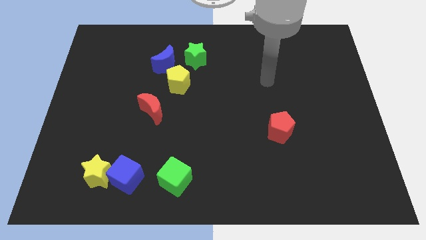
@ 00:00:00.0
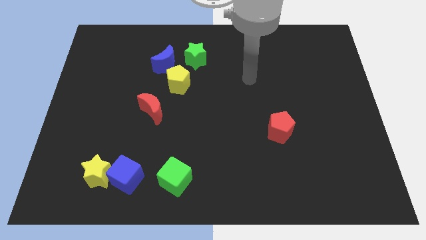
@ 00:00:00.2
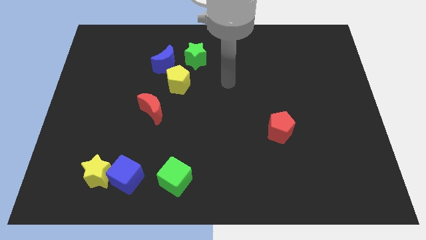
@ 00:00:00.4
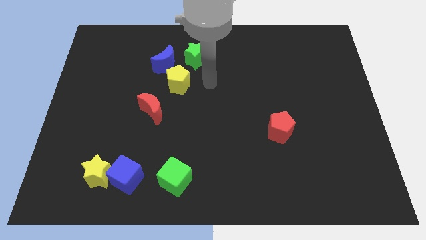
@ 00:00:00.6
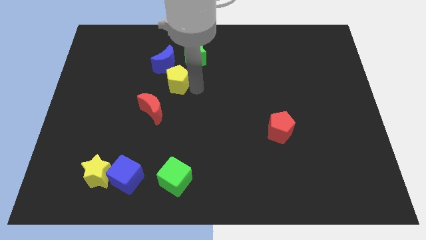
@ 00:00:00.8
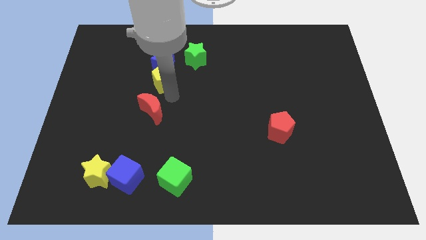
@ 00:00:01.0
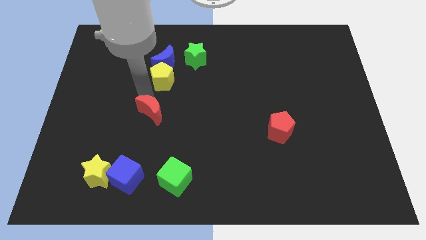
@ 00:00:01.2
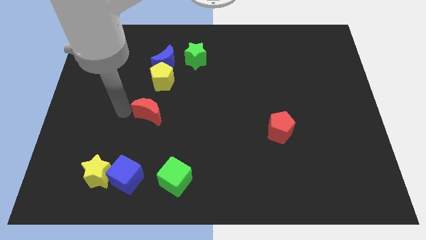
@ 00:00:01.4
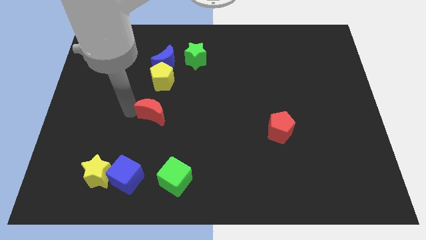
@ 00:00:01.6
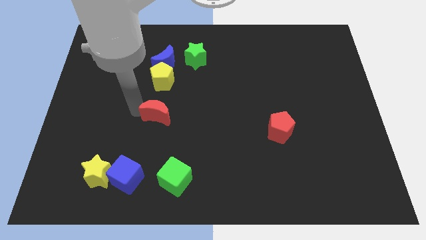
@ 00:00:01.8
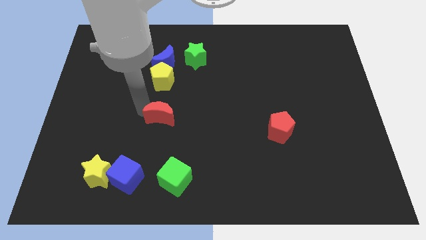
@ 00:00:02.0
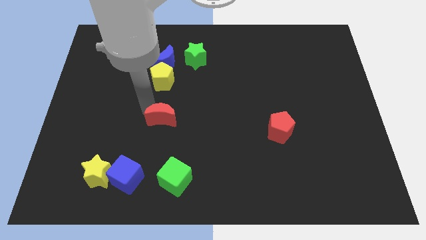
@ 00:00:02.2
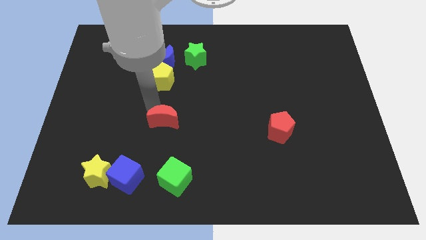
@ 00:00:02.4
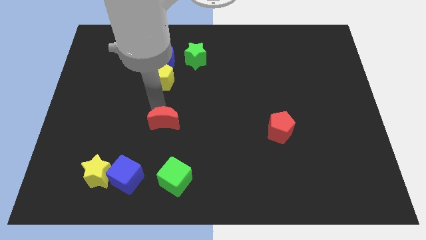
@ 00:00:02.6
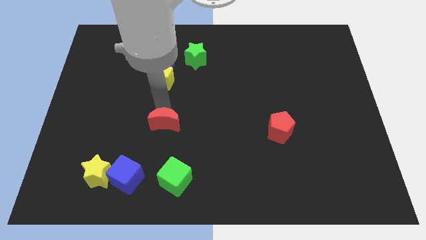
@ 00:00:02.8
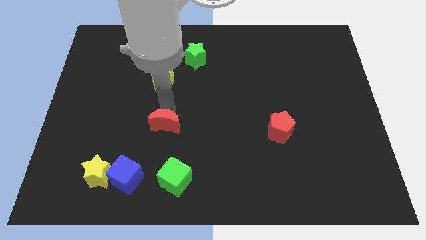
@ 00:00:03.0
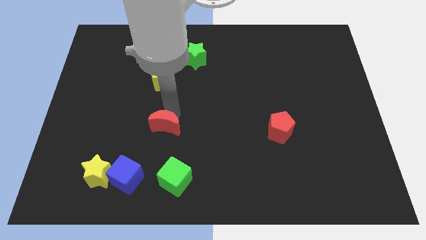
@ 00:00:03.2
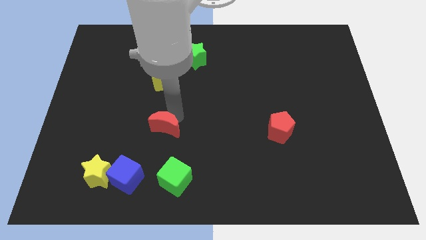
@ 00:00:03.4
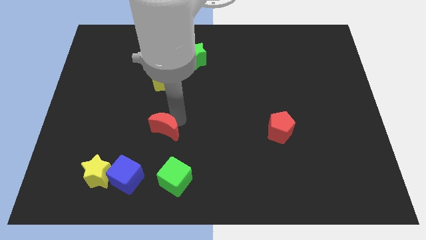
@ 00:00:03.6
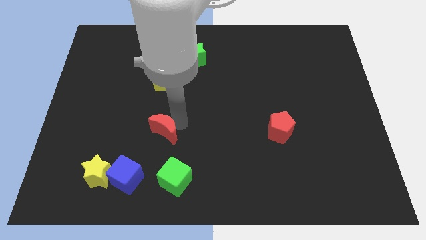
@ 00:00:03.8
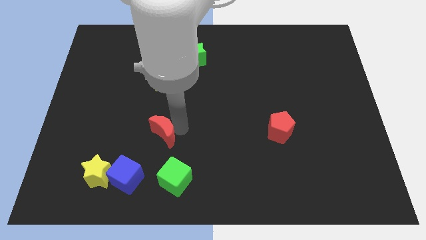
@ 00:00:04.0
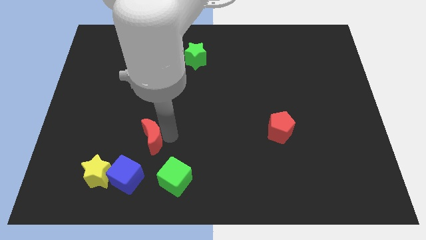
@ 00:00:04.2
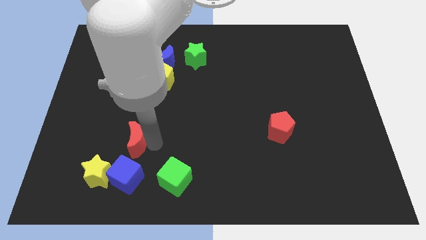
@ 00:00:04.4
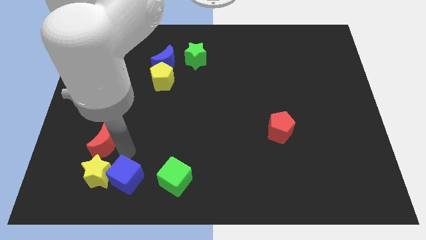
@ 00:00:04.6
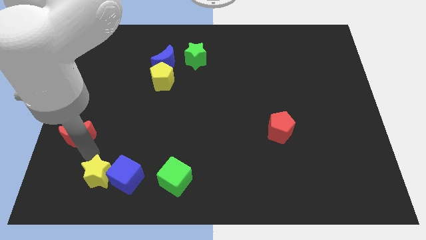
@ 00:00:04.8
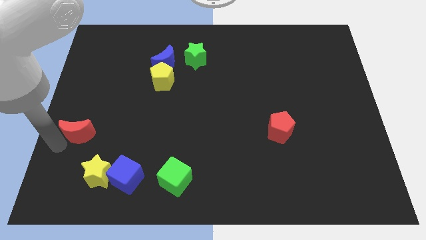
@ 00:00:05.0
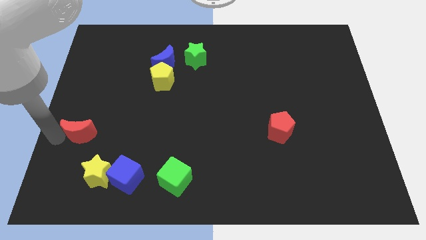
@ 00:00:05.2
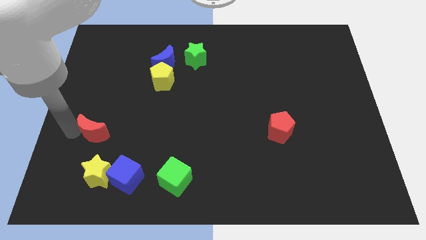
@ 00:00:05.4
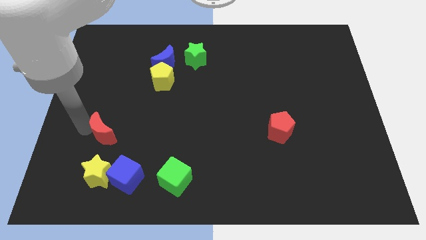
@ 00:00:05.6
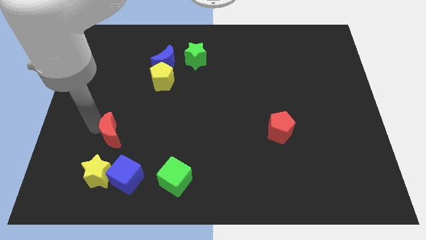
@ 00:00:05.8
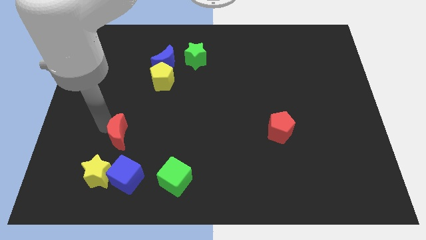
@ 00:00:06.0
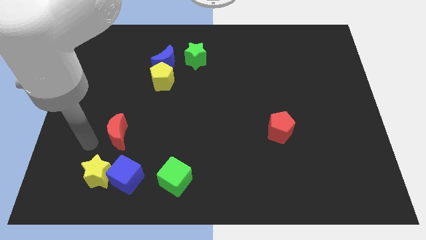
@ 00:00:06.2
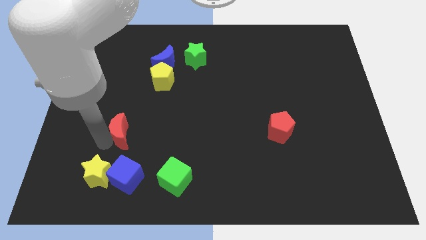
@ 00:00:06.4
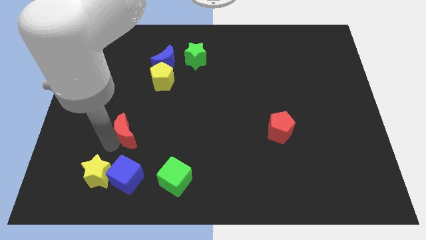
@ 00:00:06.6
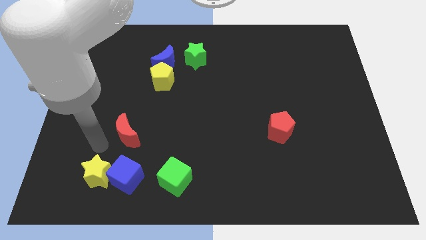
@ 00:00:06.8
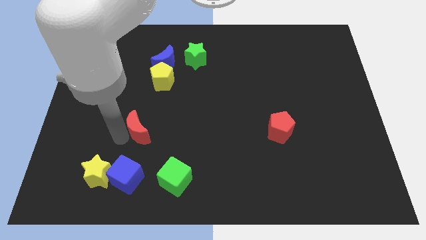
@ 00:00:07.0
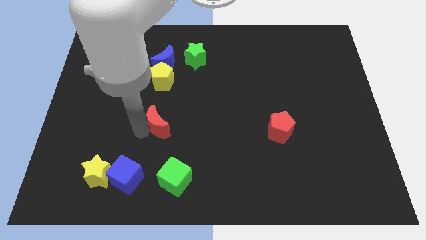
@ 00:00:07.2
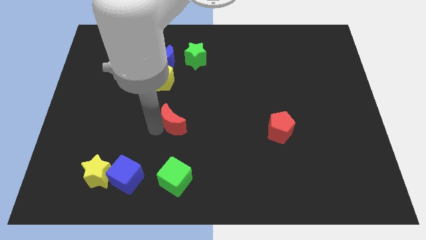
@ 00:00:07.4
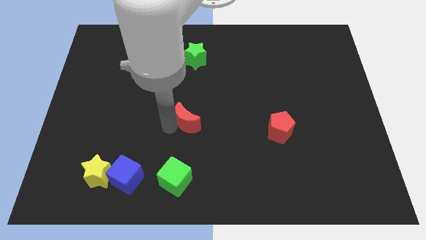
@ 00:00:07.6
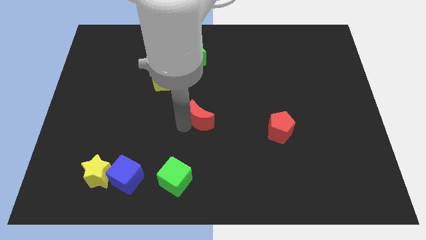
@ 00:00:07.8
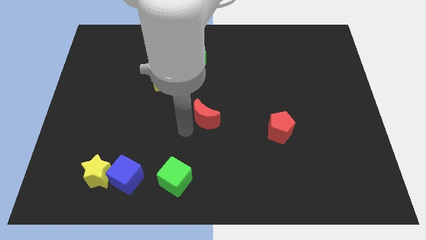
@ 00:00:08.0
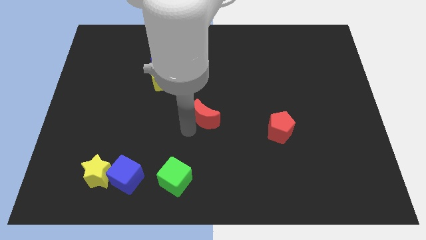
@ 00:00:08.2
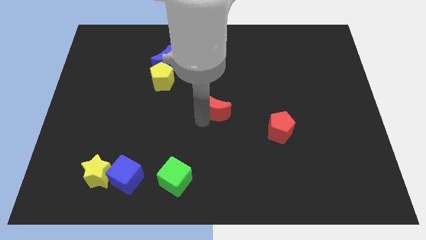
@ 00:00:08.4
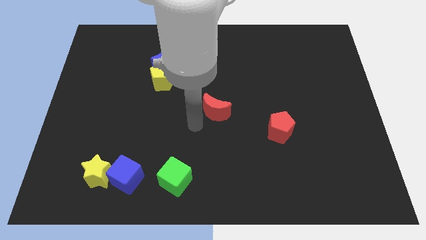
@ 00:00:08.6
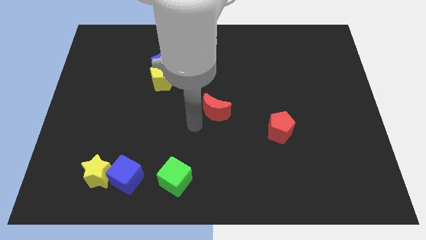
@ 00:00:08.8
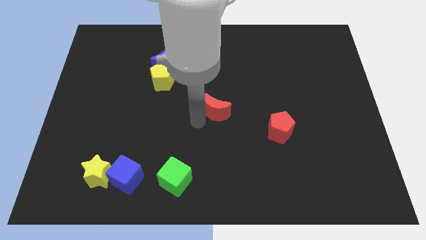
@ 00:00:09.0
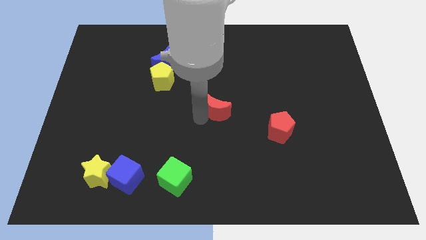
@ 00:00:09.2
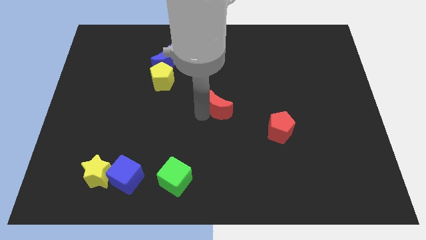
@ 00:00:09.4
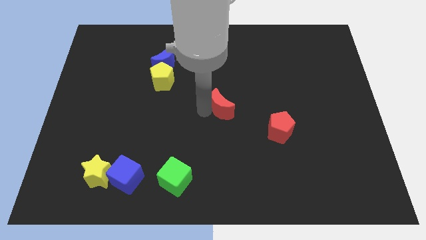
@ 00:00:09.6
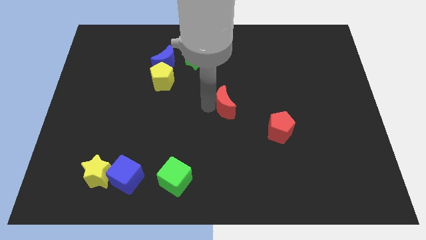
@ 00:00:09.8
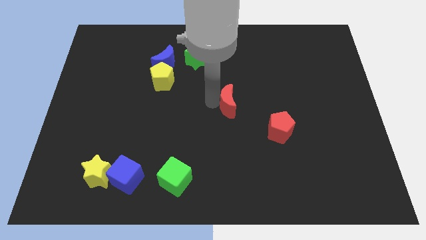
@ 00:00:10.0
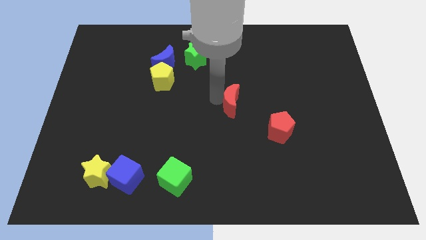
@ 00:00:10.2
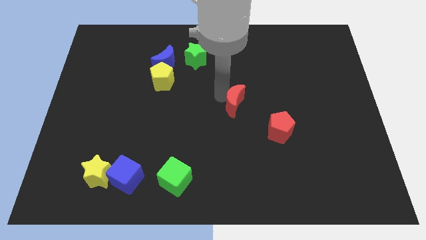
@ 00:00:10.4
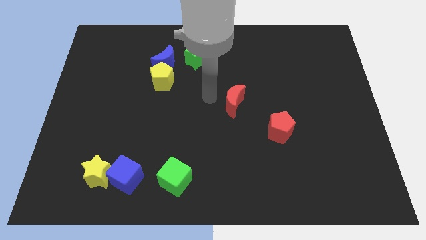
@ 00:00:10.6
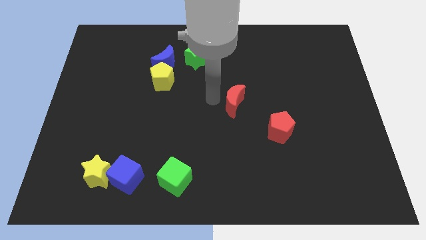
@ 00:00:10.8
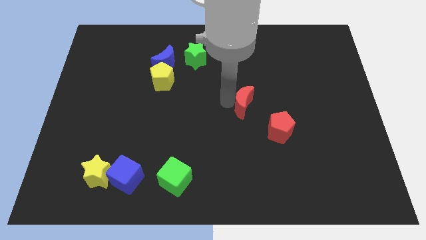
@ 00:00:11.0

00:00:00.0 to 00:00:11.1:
push the red moon to the right

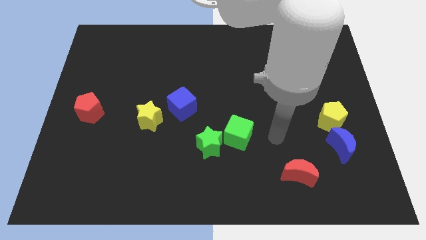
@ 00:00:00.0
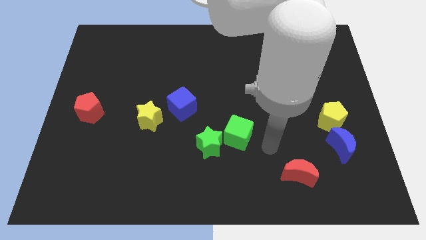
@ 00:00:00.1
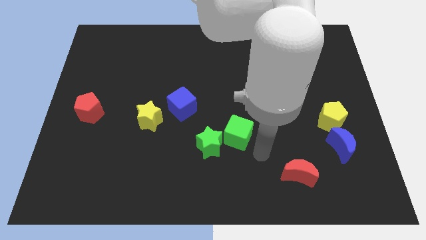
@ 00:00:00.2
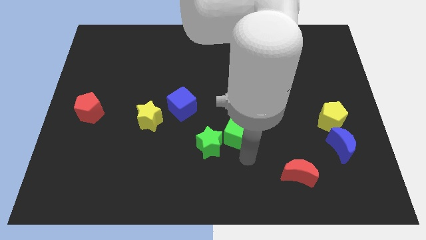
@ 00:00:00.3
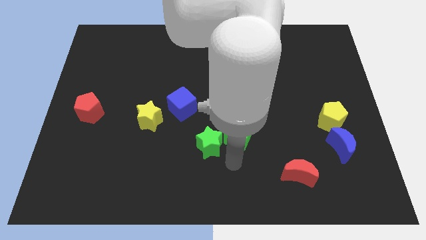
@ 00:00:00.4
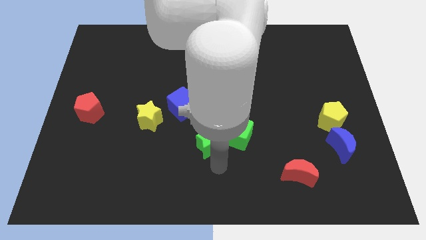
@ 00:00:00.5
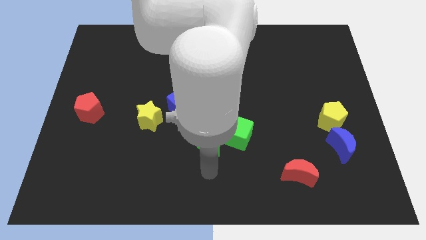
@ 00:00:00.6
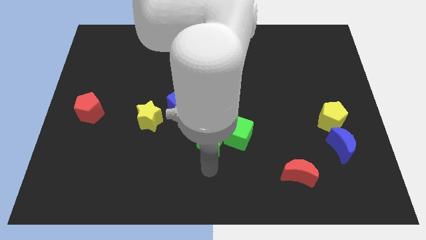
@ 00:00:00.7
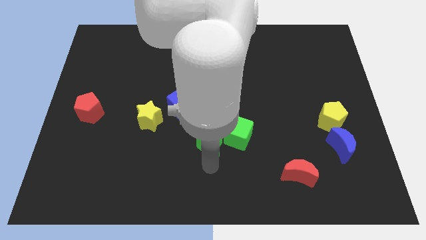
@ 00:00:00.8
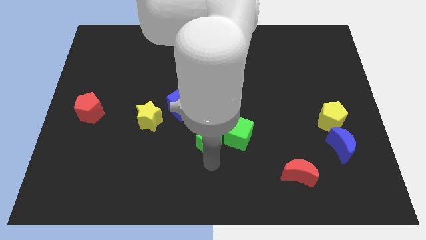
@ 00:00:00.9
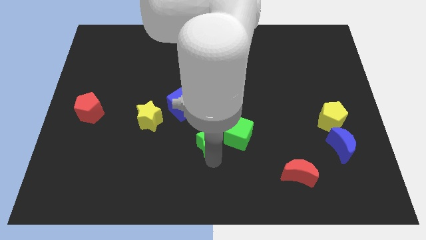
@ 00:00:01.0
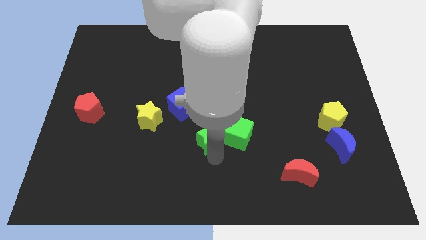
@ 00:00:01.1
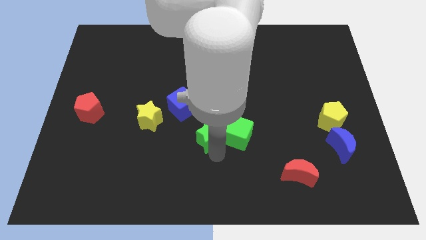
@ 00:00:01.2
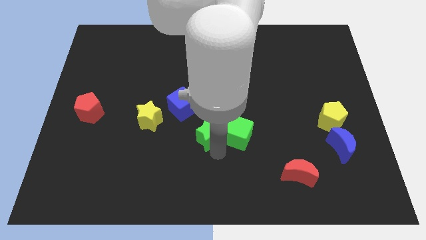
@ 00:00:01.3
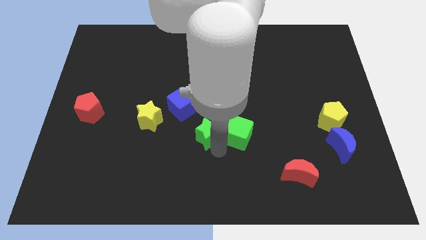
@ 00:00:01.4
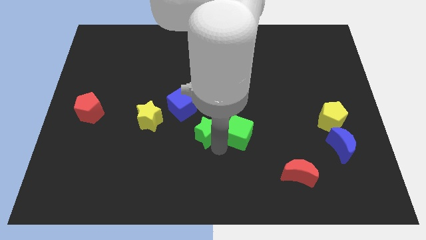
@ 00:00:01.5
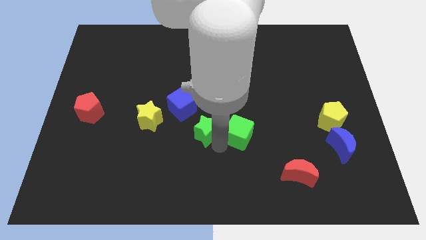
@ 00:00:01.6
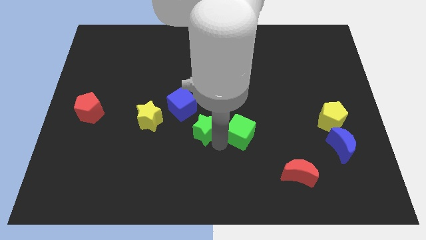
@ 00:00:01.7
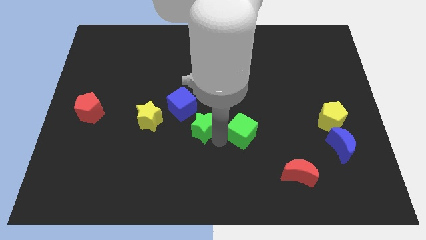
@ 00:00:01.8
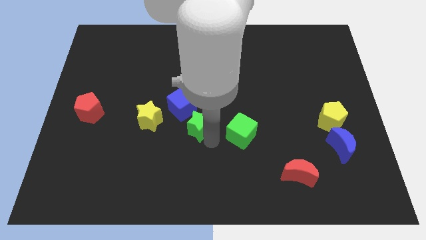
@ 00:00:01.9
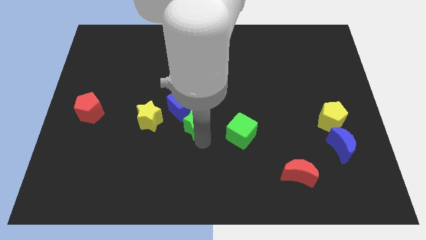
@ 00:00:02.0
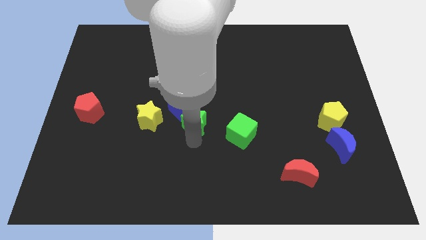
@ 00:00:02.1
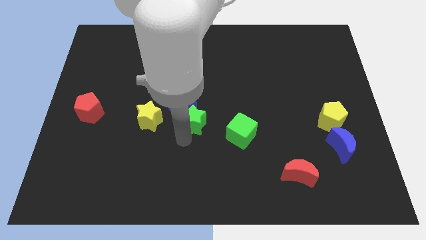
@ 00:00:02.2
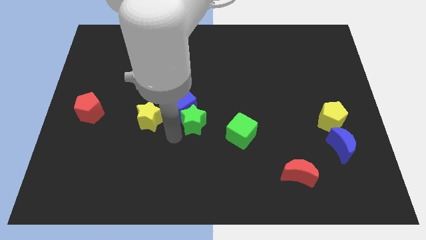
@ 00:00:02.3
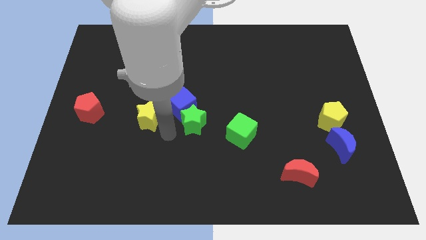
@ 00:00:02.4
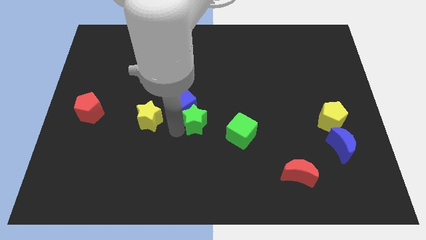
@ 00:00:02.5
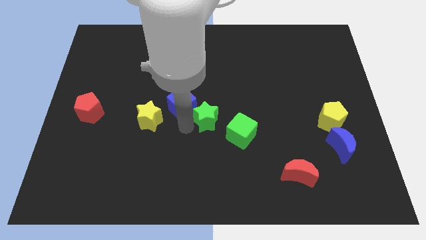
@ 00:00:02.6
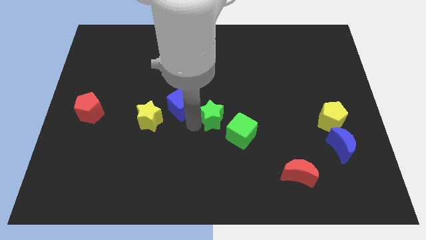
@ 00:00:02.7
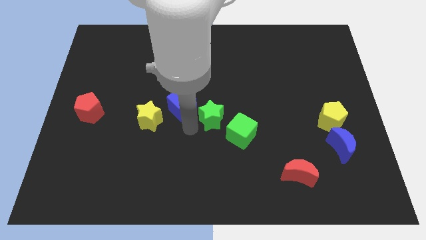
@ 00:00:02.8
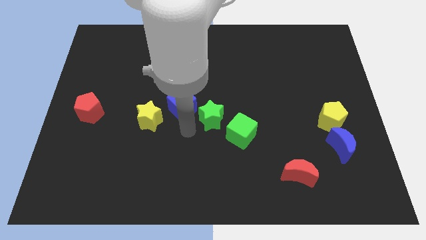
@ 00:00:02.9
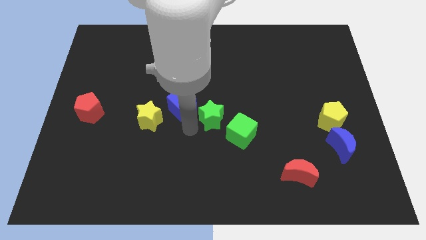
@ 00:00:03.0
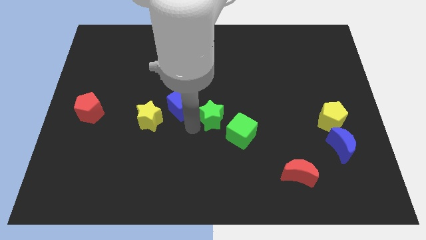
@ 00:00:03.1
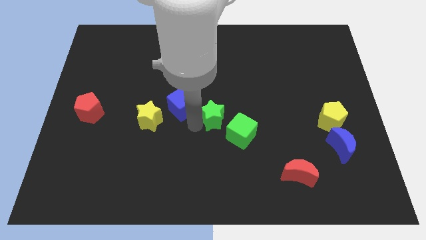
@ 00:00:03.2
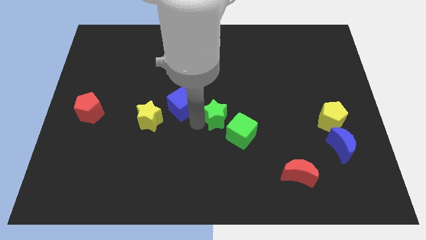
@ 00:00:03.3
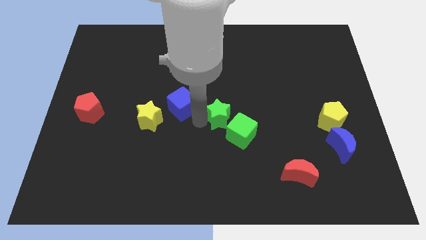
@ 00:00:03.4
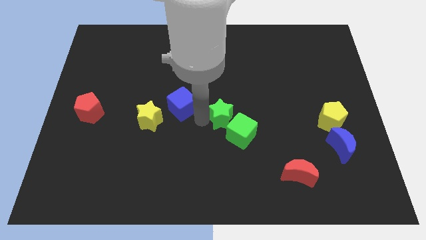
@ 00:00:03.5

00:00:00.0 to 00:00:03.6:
slightly push the green star upwards and to the right
